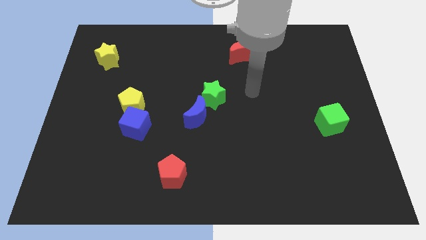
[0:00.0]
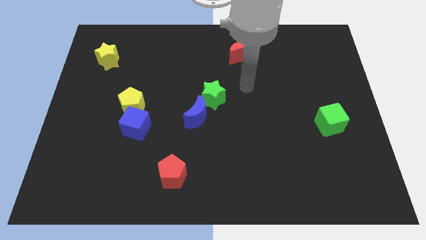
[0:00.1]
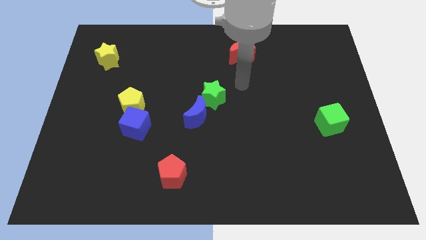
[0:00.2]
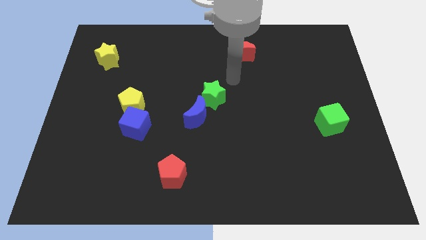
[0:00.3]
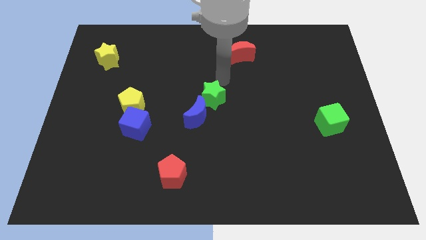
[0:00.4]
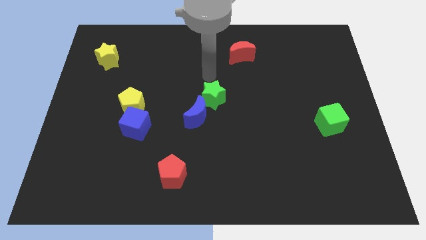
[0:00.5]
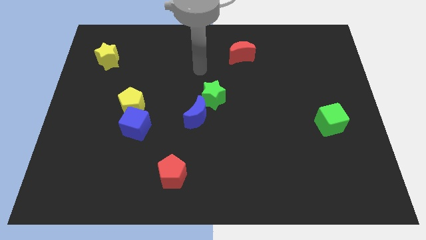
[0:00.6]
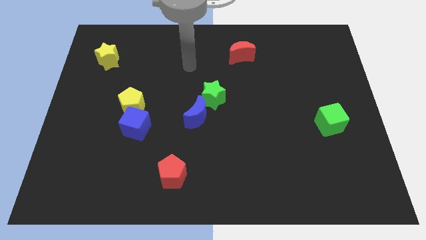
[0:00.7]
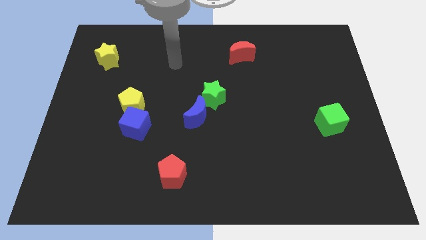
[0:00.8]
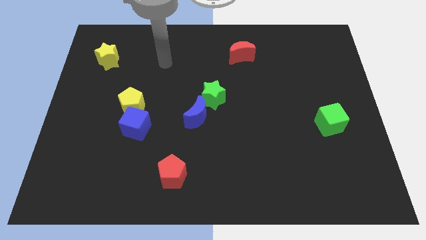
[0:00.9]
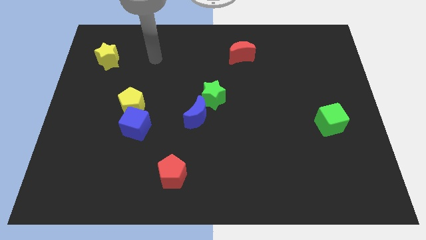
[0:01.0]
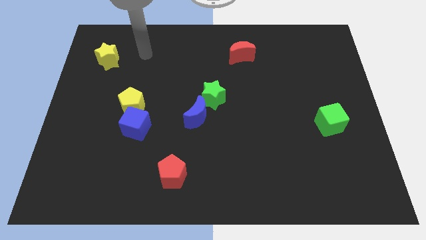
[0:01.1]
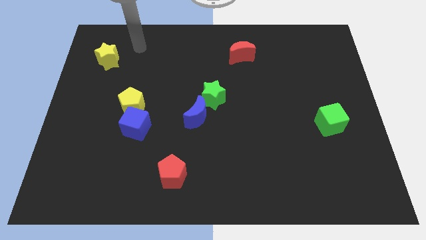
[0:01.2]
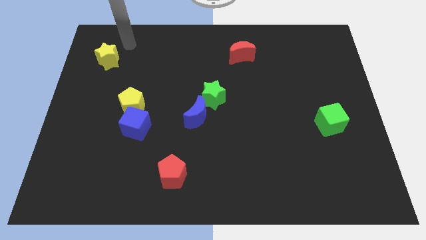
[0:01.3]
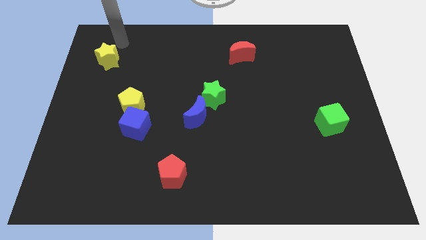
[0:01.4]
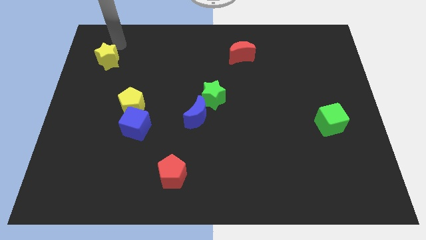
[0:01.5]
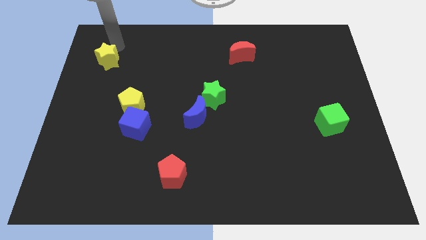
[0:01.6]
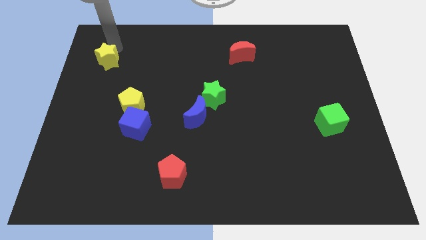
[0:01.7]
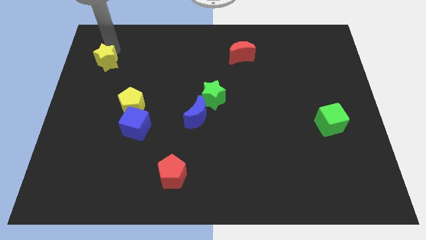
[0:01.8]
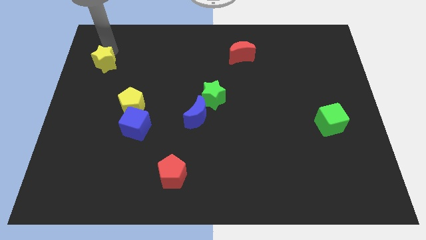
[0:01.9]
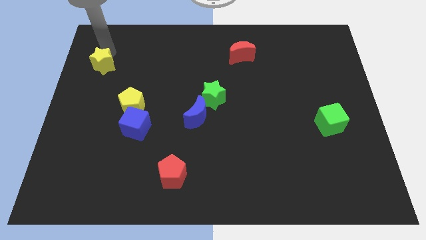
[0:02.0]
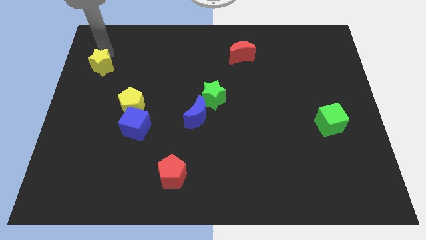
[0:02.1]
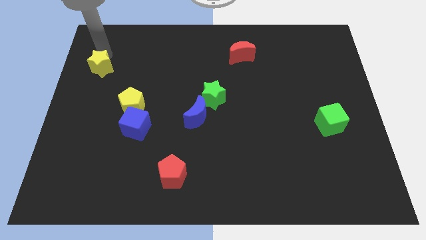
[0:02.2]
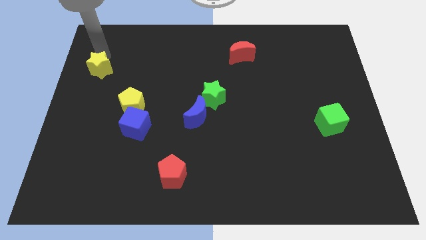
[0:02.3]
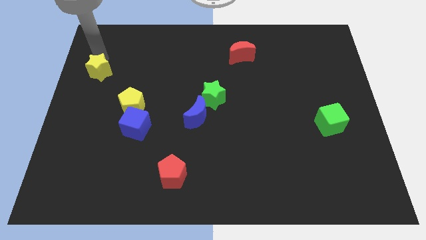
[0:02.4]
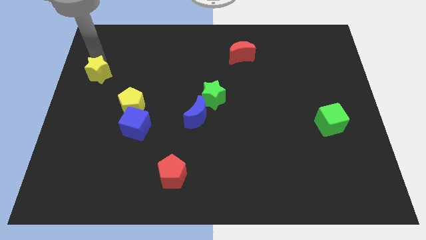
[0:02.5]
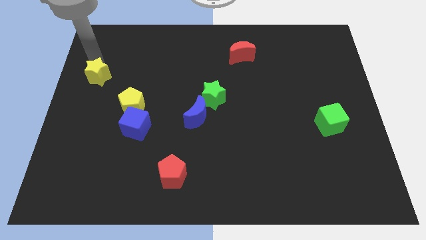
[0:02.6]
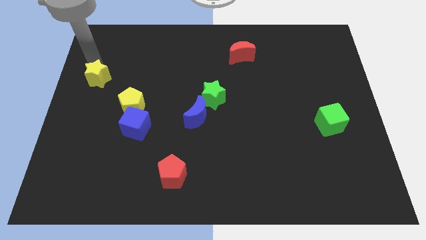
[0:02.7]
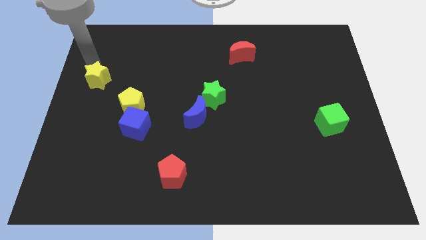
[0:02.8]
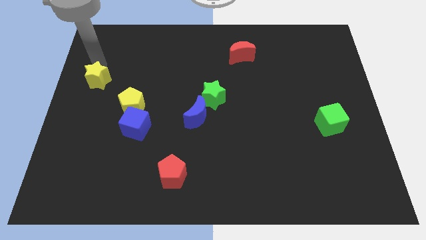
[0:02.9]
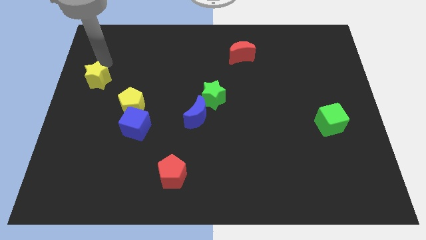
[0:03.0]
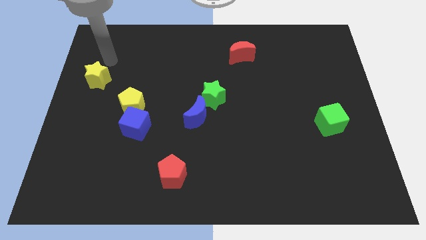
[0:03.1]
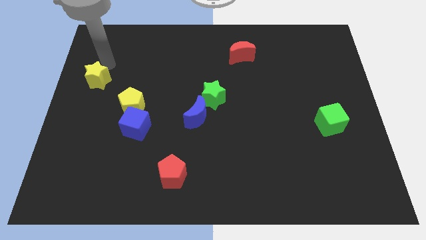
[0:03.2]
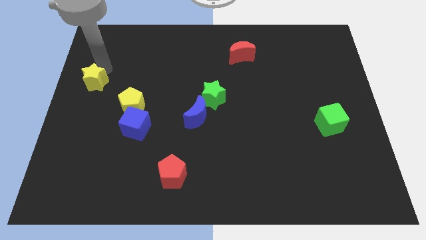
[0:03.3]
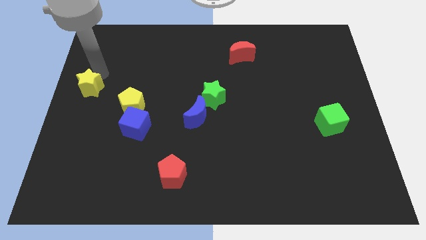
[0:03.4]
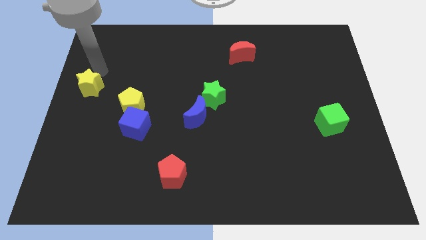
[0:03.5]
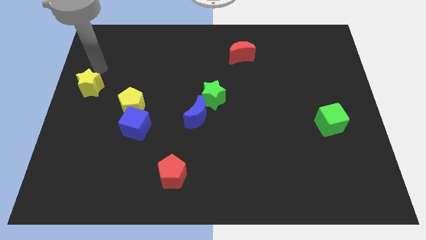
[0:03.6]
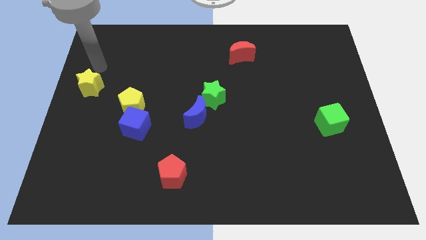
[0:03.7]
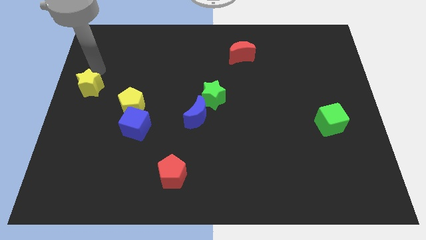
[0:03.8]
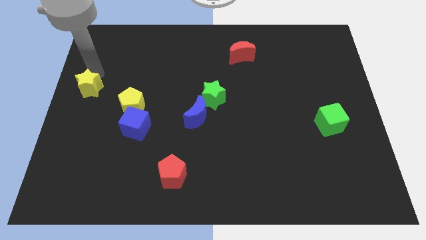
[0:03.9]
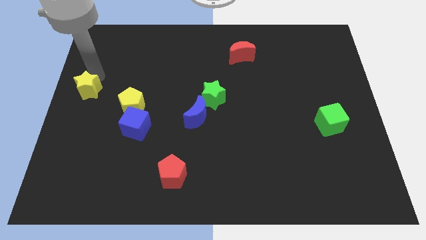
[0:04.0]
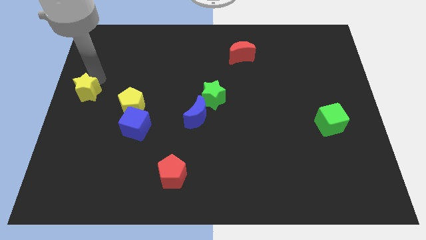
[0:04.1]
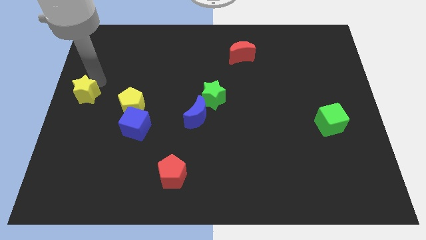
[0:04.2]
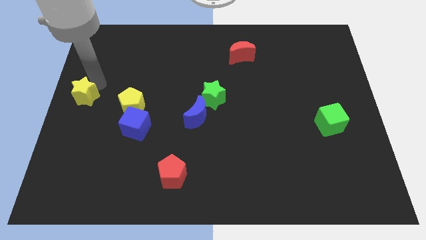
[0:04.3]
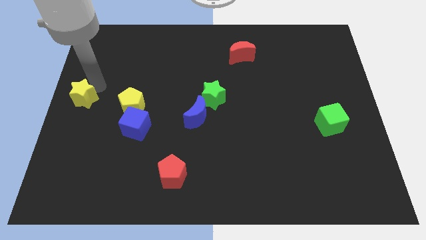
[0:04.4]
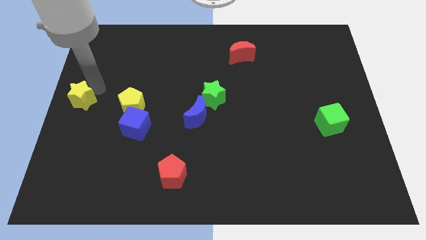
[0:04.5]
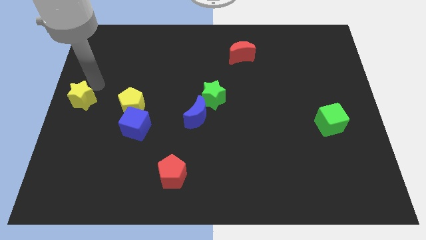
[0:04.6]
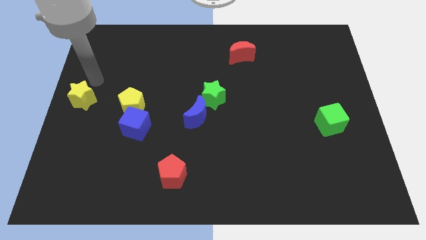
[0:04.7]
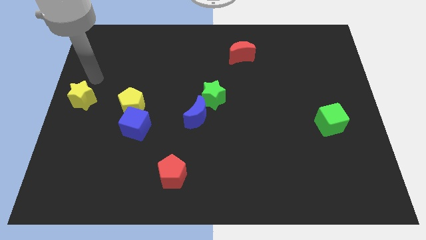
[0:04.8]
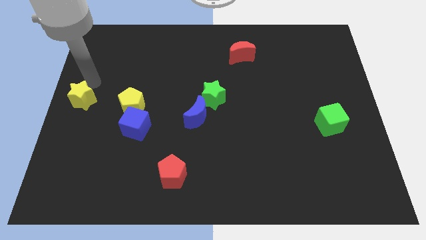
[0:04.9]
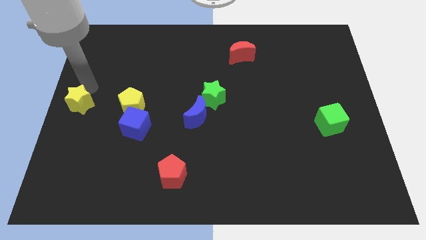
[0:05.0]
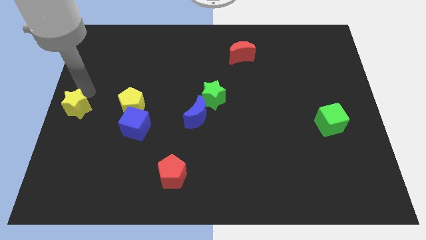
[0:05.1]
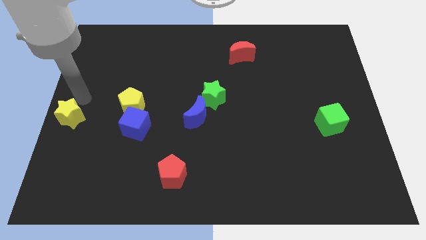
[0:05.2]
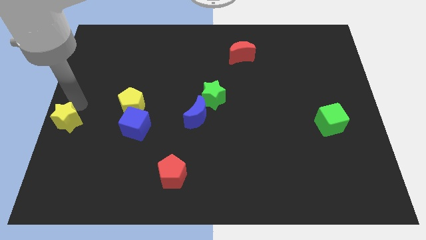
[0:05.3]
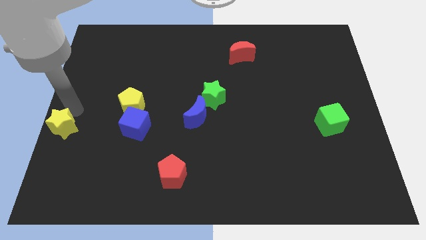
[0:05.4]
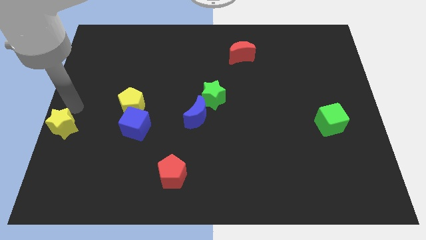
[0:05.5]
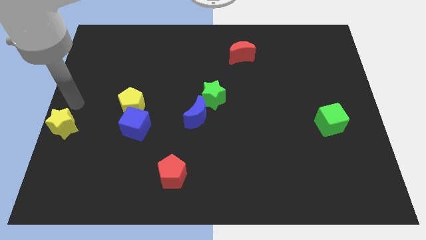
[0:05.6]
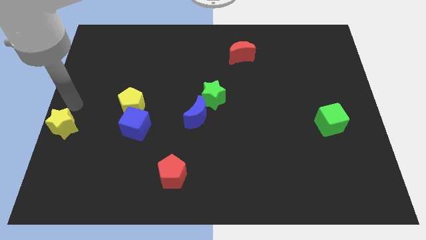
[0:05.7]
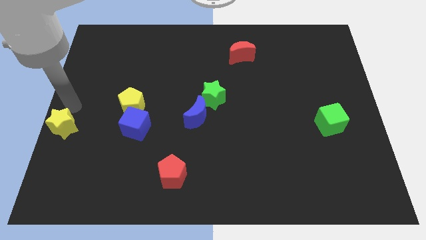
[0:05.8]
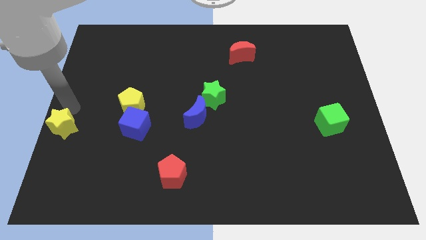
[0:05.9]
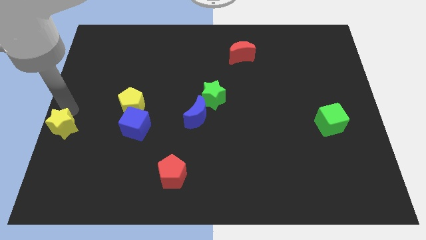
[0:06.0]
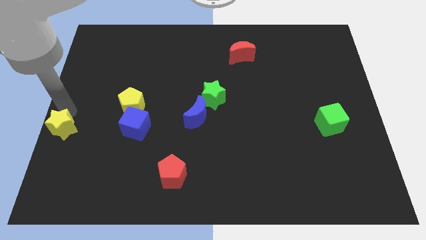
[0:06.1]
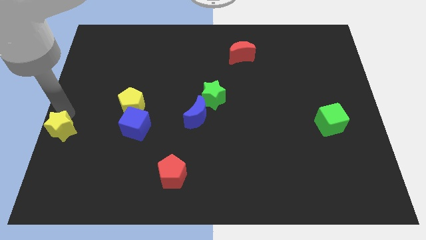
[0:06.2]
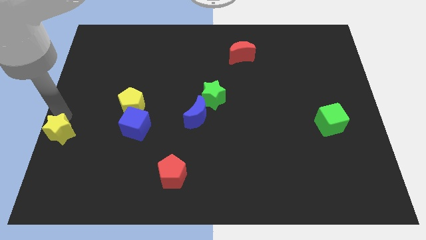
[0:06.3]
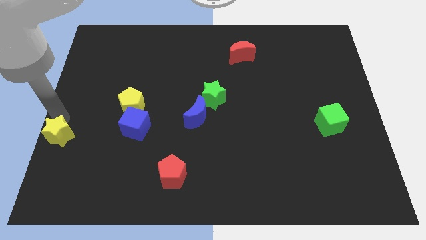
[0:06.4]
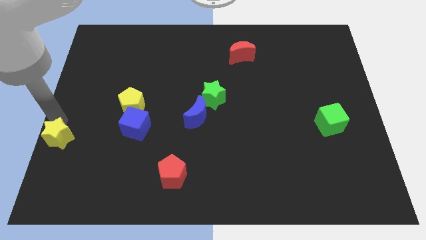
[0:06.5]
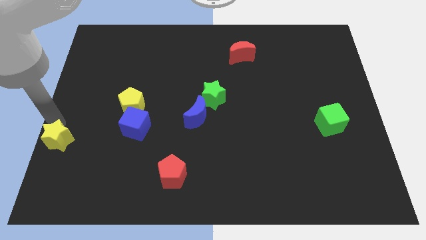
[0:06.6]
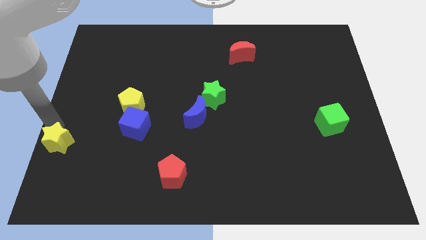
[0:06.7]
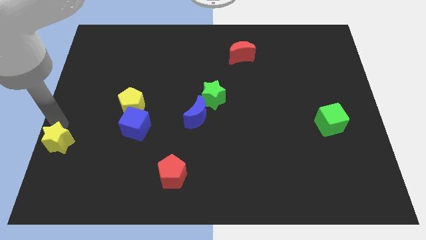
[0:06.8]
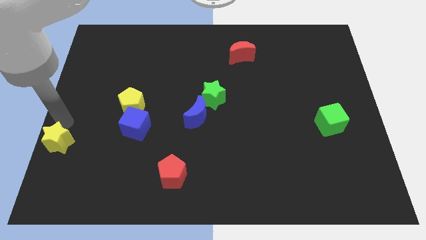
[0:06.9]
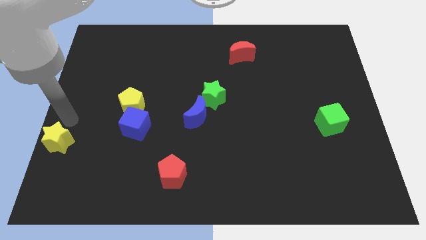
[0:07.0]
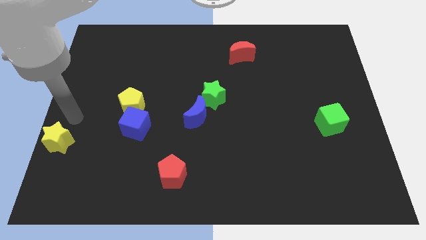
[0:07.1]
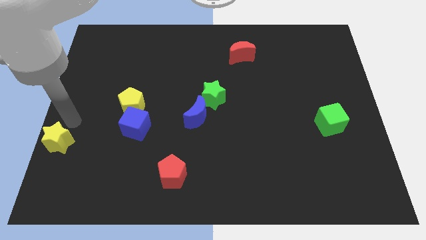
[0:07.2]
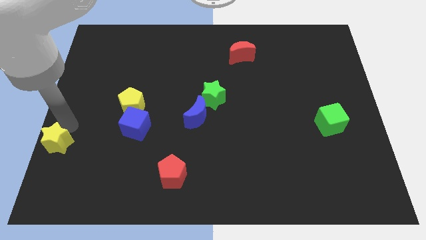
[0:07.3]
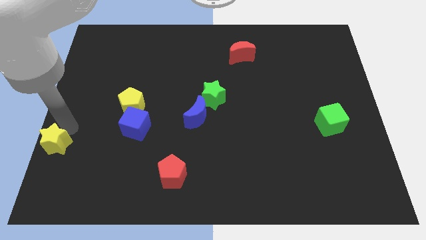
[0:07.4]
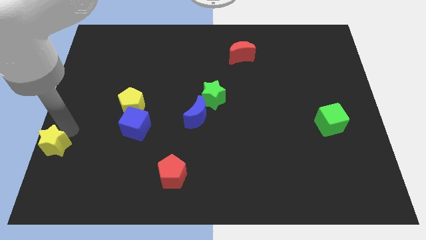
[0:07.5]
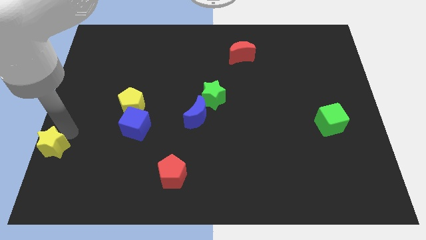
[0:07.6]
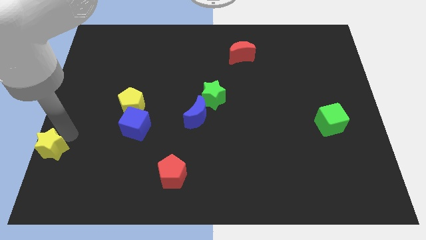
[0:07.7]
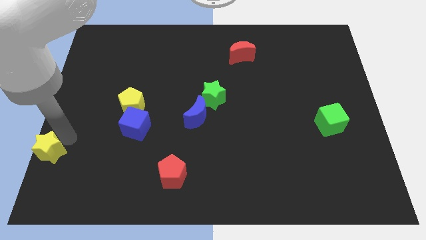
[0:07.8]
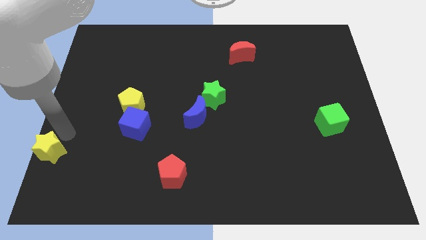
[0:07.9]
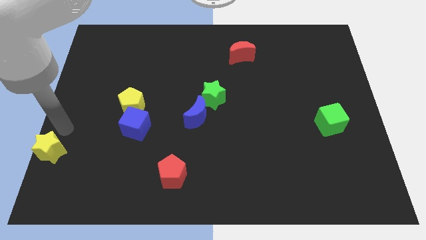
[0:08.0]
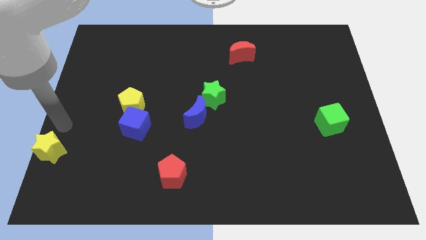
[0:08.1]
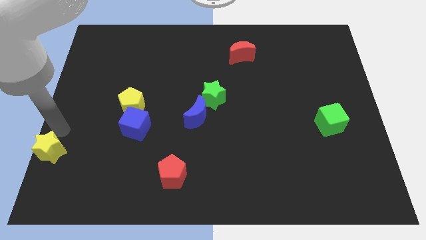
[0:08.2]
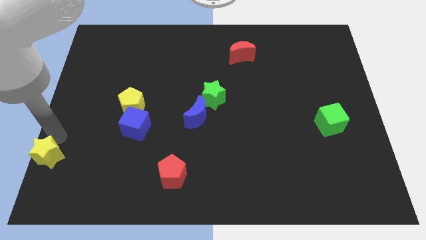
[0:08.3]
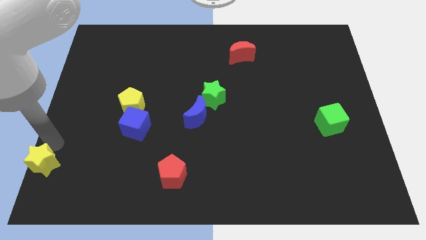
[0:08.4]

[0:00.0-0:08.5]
put the yellow star to the lower left corner
